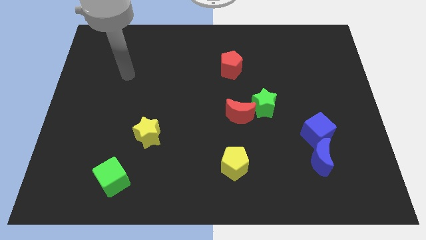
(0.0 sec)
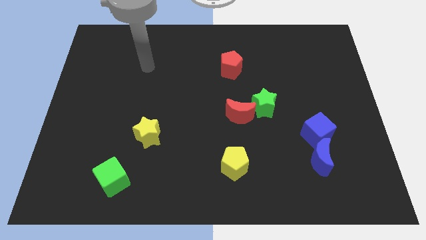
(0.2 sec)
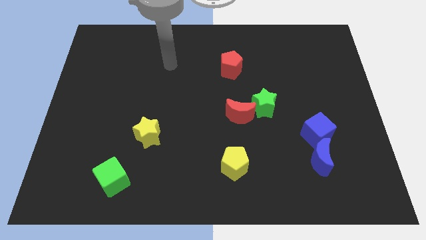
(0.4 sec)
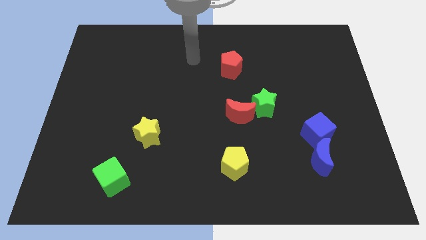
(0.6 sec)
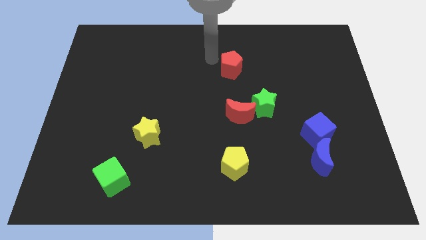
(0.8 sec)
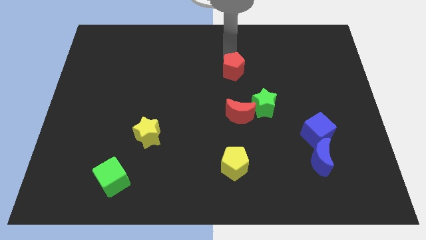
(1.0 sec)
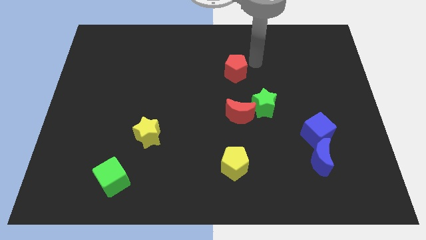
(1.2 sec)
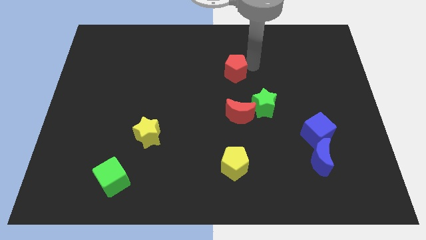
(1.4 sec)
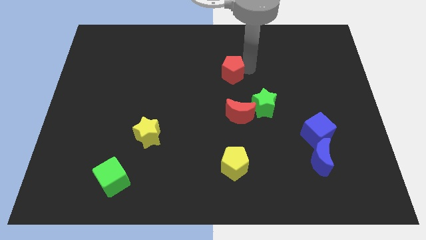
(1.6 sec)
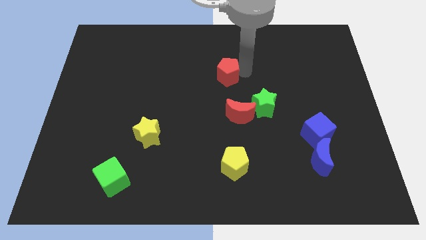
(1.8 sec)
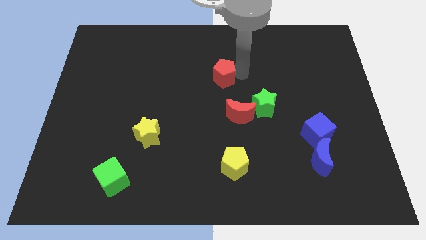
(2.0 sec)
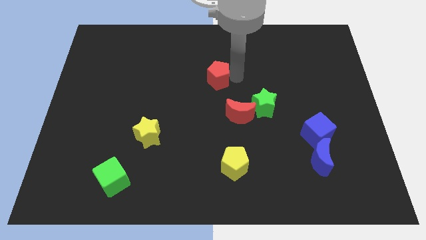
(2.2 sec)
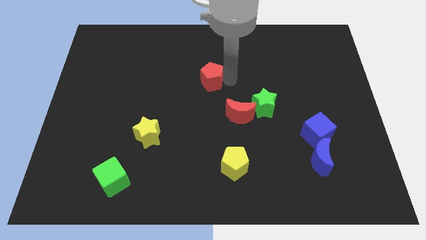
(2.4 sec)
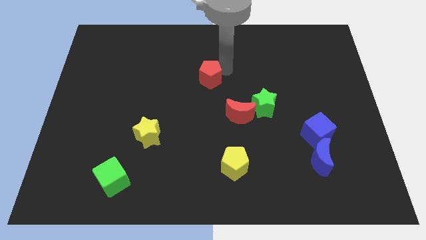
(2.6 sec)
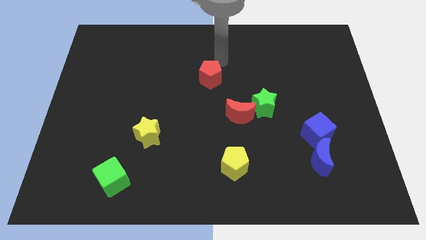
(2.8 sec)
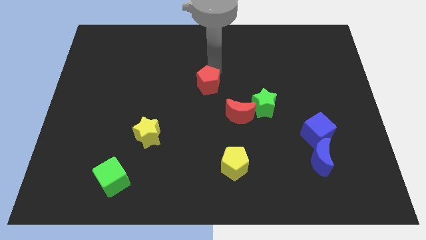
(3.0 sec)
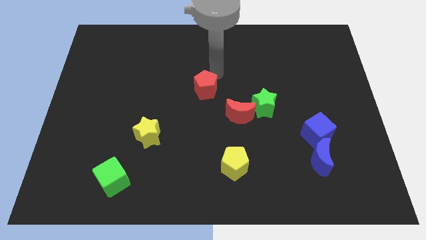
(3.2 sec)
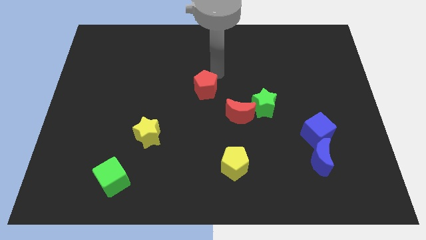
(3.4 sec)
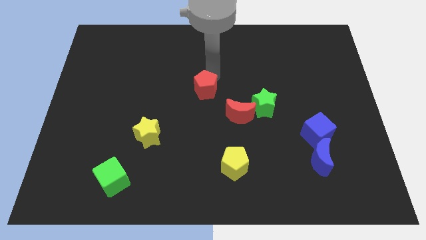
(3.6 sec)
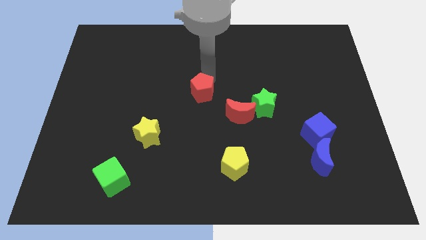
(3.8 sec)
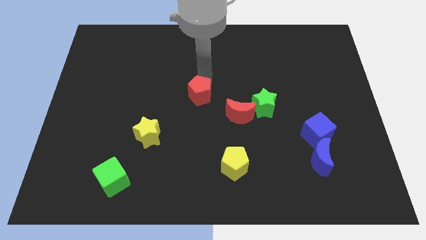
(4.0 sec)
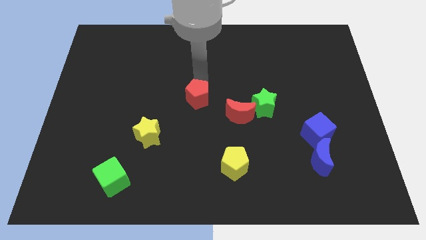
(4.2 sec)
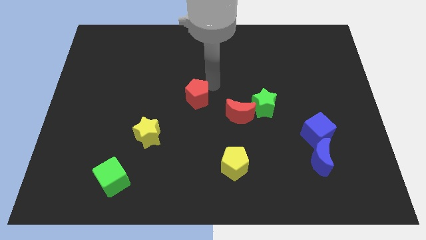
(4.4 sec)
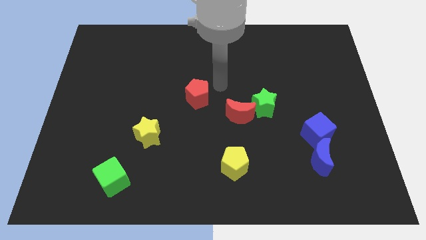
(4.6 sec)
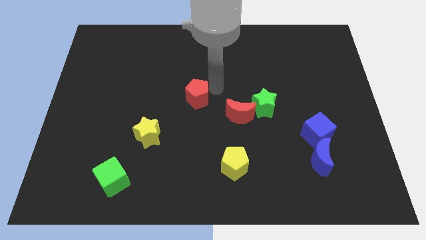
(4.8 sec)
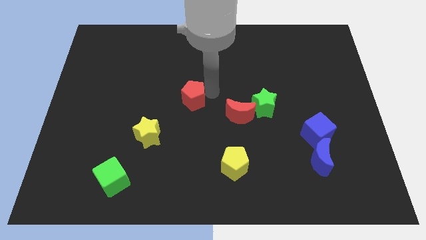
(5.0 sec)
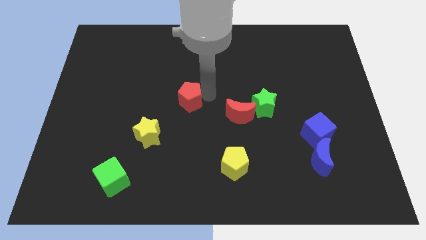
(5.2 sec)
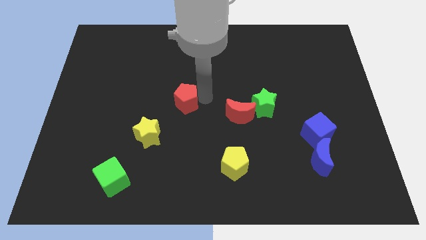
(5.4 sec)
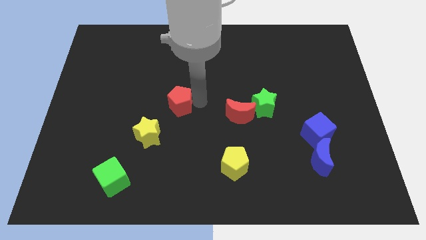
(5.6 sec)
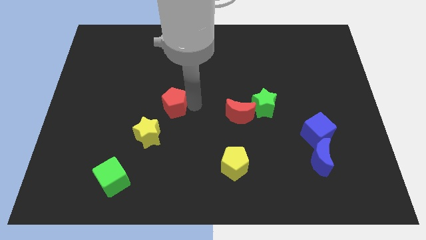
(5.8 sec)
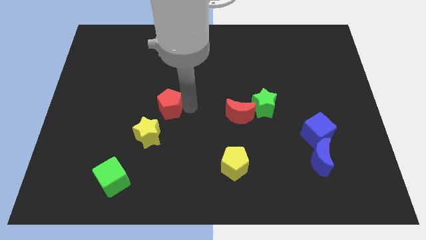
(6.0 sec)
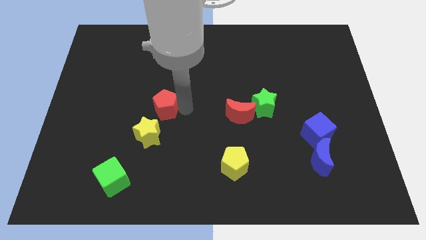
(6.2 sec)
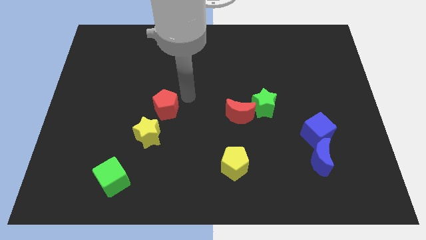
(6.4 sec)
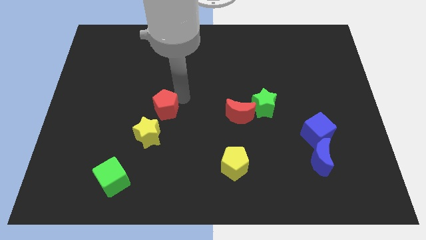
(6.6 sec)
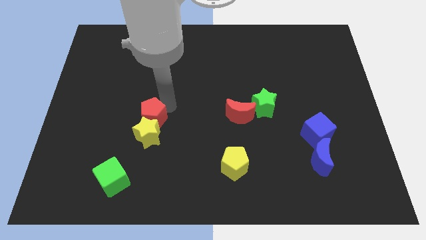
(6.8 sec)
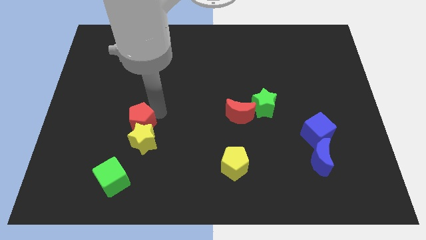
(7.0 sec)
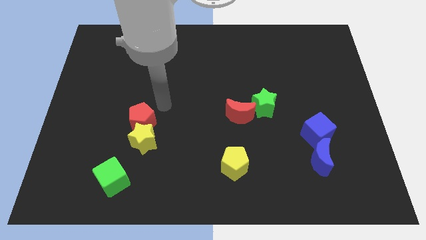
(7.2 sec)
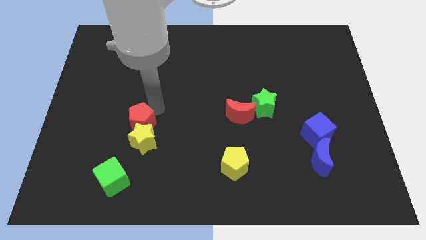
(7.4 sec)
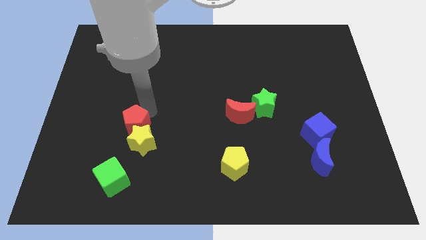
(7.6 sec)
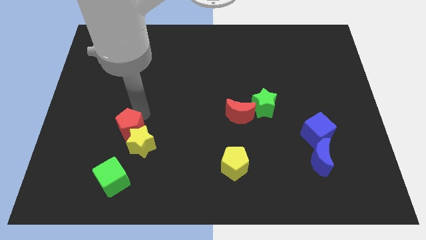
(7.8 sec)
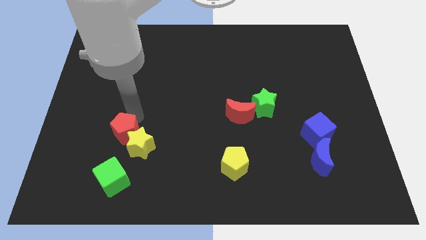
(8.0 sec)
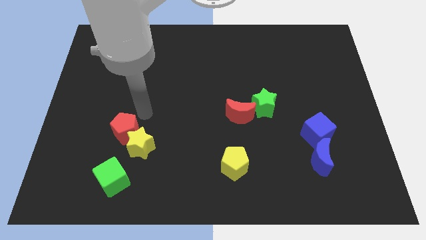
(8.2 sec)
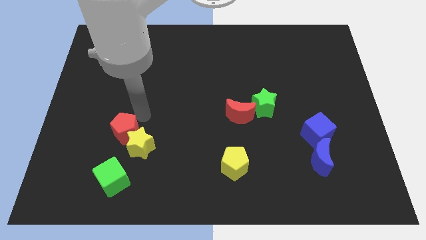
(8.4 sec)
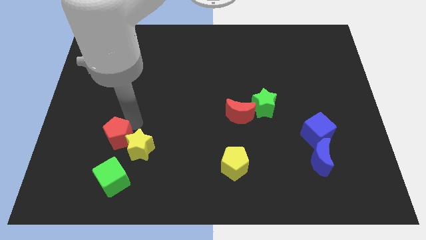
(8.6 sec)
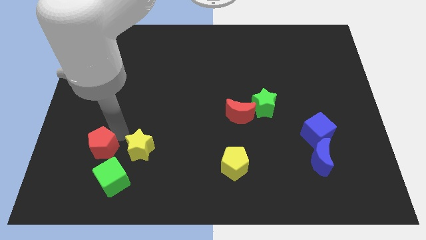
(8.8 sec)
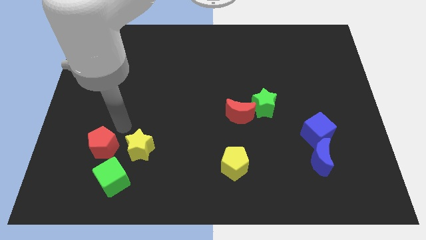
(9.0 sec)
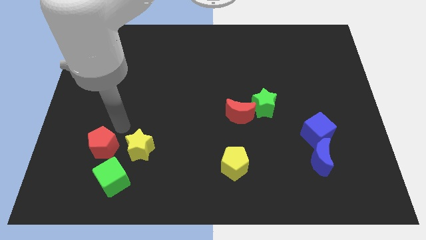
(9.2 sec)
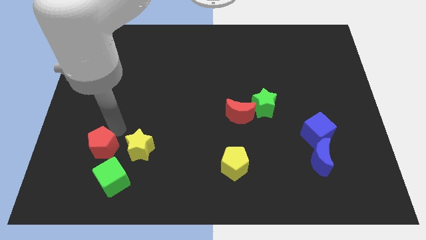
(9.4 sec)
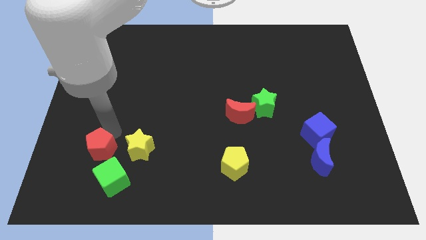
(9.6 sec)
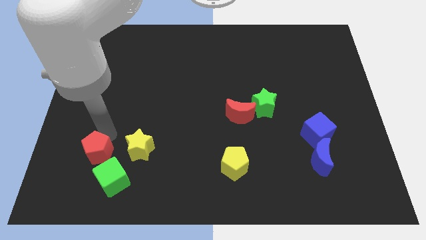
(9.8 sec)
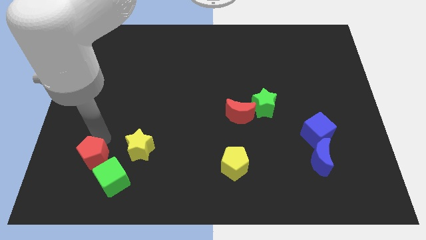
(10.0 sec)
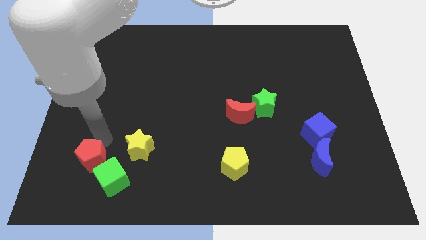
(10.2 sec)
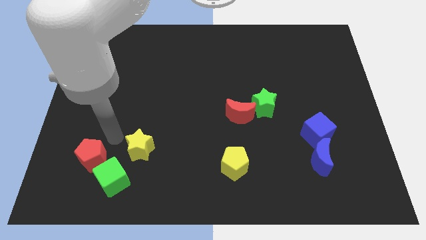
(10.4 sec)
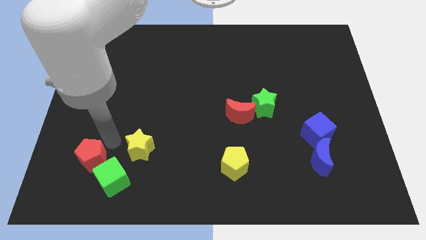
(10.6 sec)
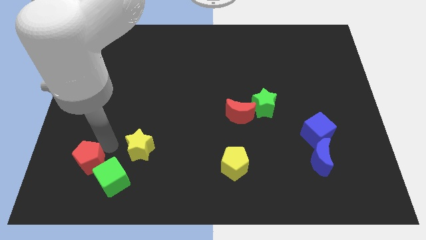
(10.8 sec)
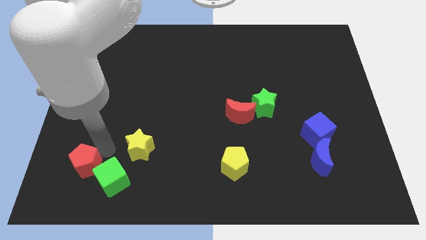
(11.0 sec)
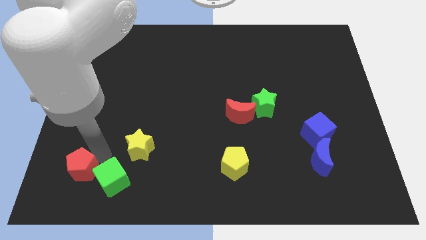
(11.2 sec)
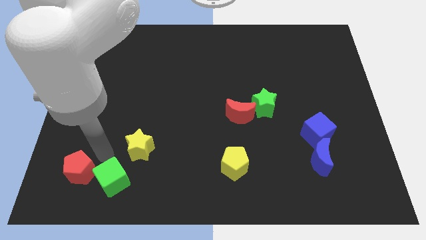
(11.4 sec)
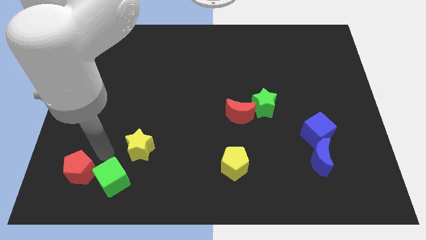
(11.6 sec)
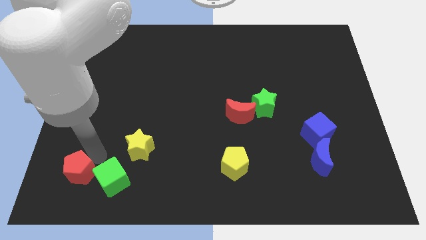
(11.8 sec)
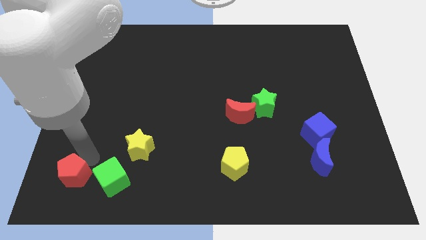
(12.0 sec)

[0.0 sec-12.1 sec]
slide the red pentagon to the bottom left of the board

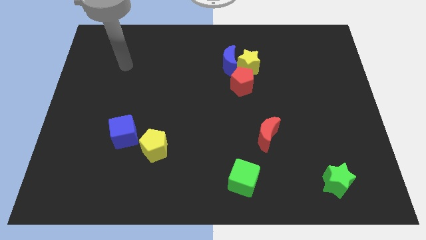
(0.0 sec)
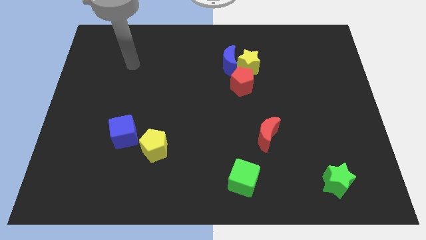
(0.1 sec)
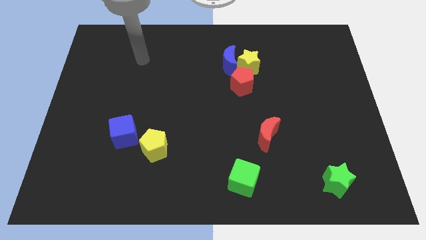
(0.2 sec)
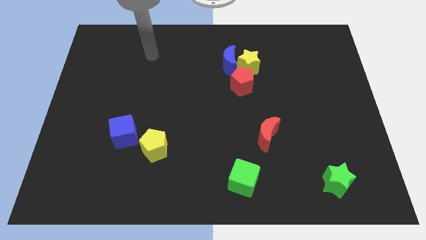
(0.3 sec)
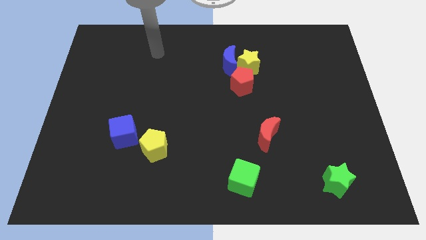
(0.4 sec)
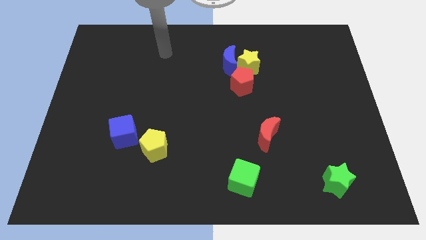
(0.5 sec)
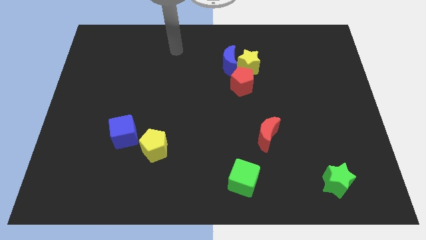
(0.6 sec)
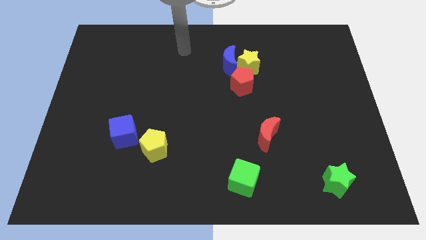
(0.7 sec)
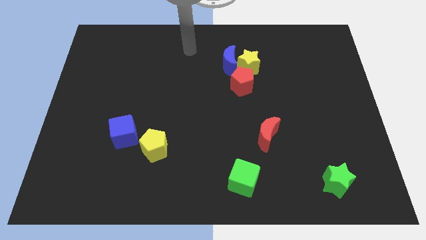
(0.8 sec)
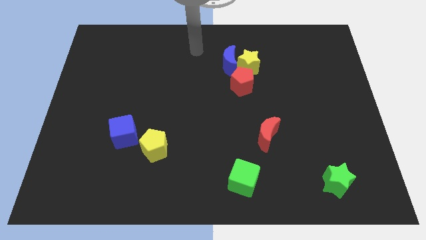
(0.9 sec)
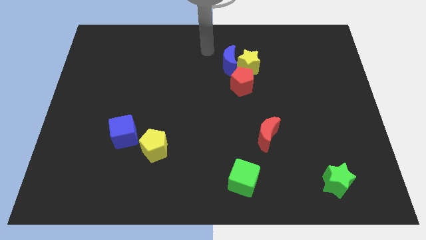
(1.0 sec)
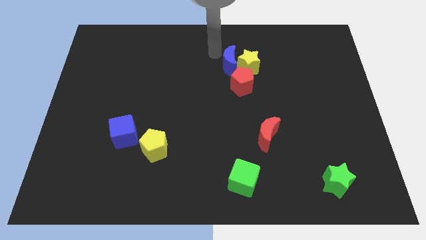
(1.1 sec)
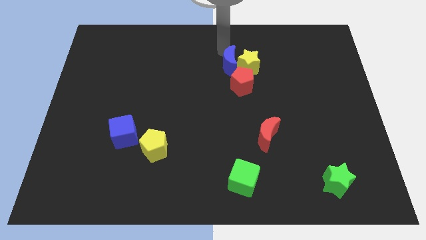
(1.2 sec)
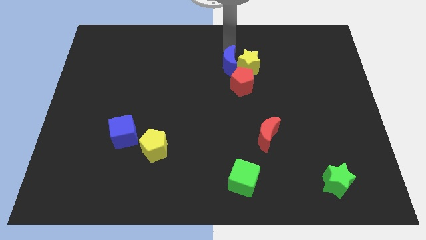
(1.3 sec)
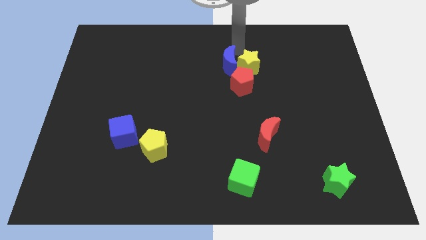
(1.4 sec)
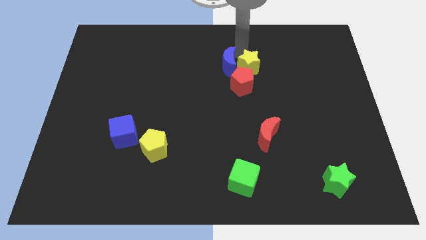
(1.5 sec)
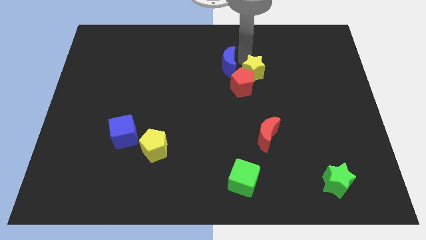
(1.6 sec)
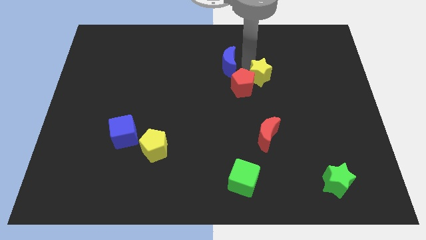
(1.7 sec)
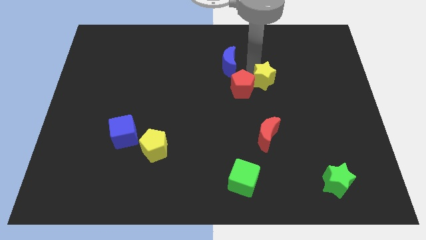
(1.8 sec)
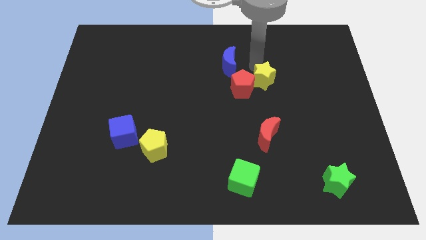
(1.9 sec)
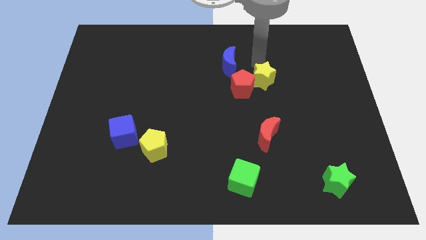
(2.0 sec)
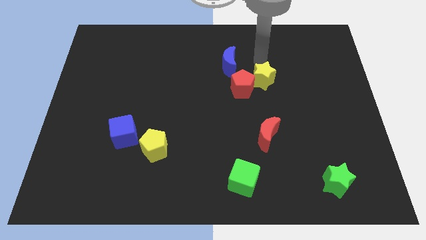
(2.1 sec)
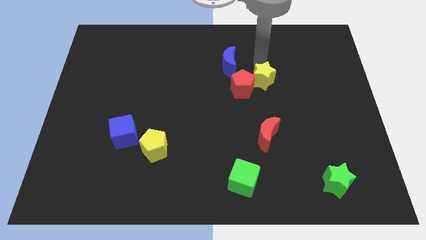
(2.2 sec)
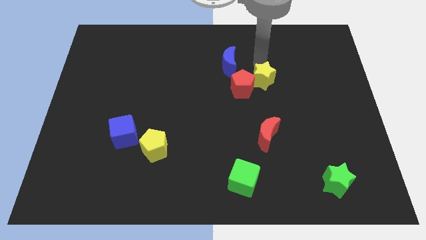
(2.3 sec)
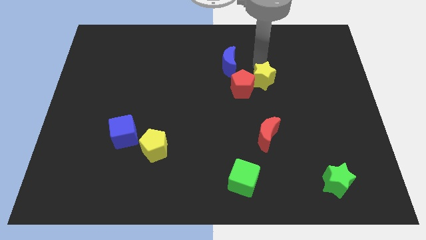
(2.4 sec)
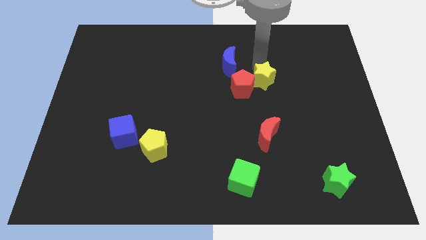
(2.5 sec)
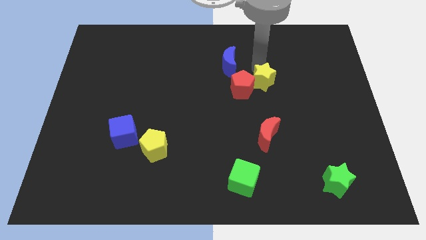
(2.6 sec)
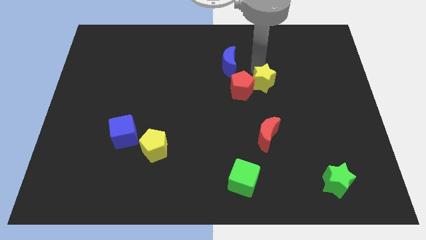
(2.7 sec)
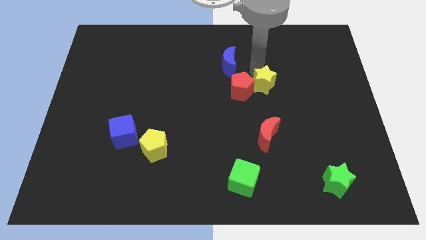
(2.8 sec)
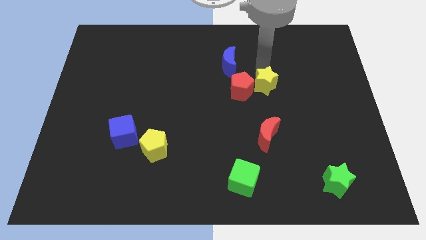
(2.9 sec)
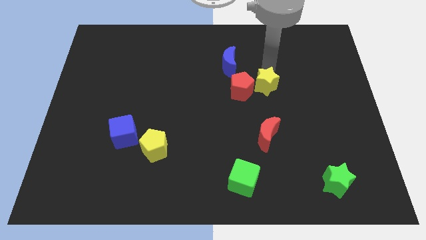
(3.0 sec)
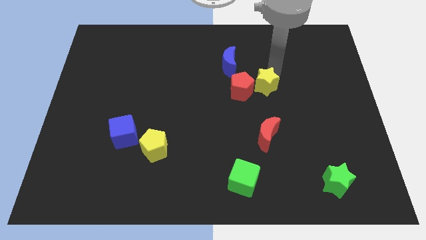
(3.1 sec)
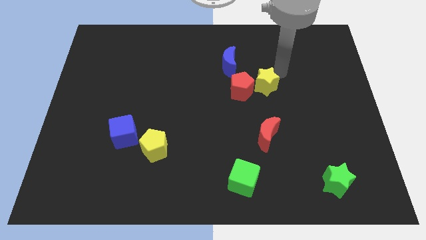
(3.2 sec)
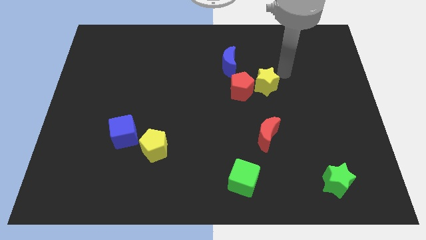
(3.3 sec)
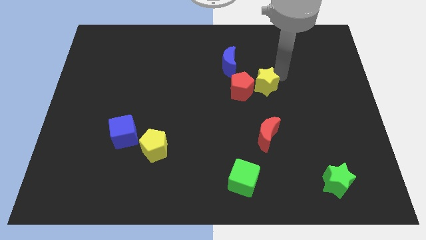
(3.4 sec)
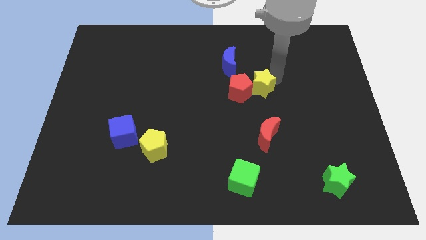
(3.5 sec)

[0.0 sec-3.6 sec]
push the yellow star to the middle of the board
